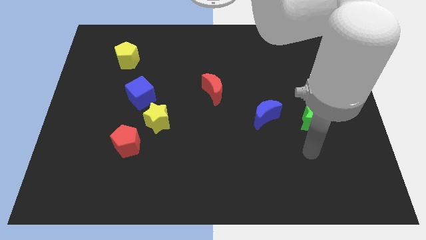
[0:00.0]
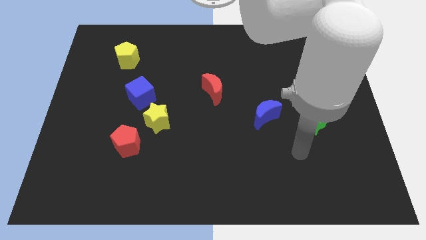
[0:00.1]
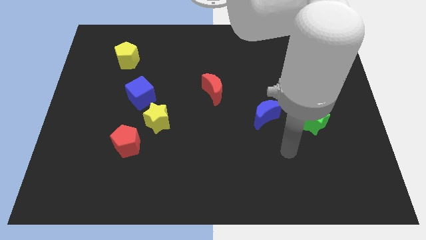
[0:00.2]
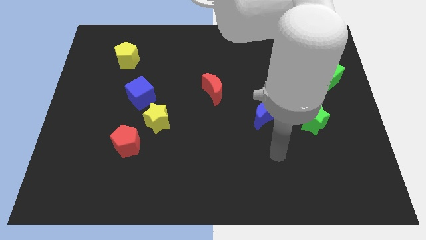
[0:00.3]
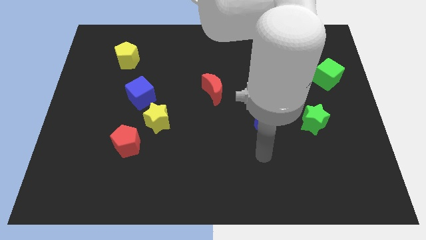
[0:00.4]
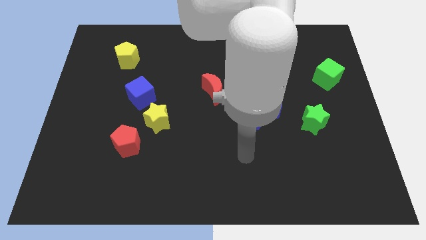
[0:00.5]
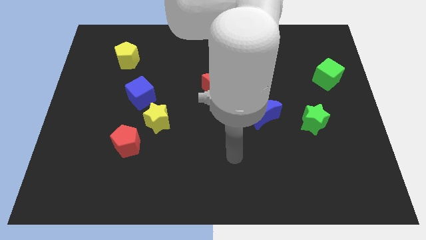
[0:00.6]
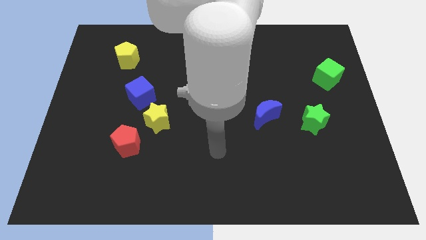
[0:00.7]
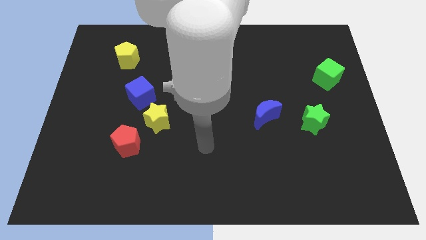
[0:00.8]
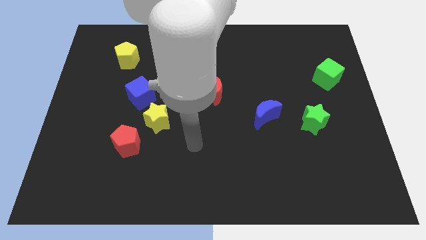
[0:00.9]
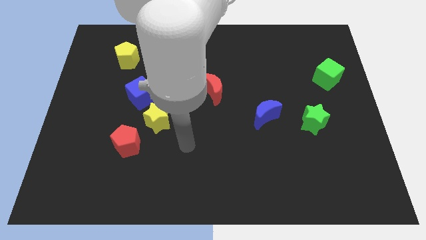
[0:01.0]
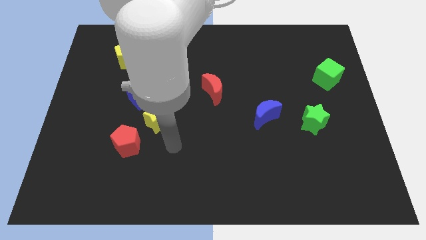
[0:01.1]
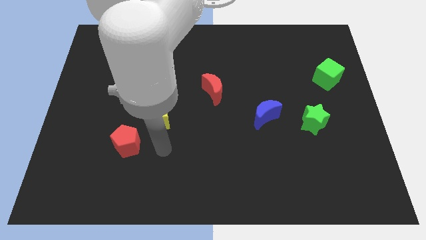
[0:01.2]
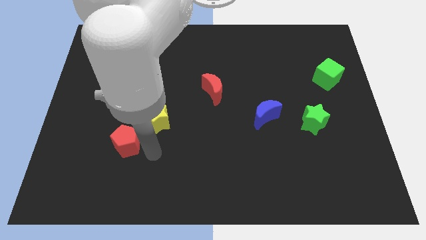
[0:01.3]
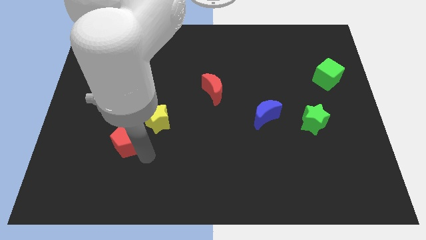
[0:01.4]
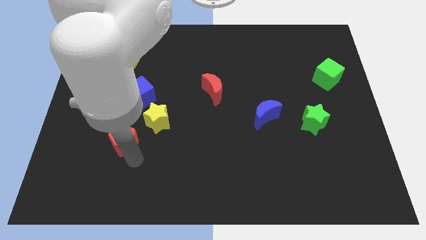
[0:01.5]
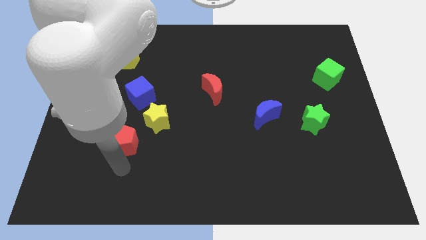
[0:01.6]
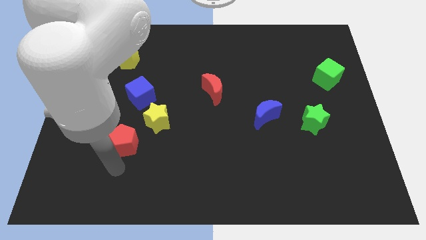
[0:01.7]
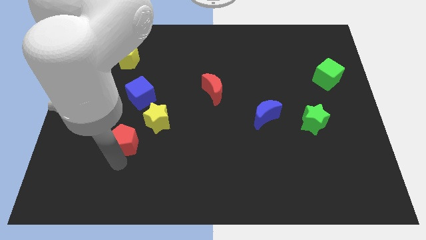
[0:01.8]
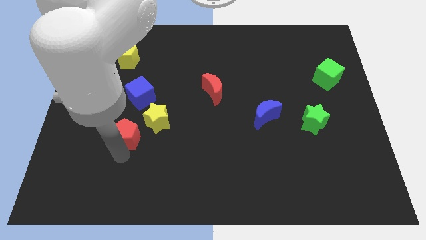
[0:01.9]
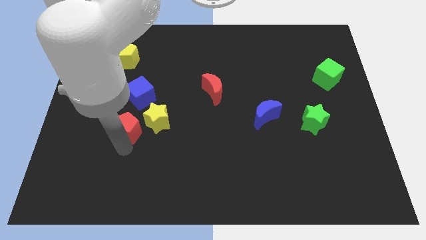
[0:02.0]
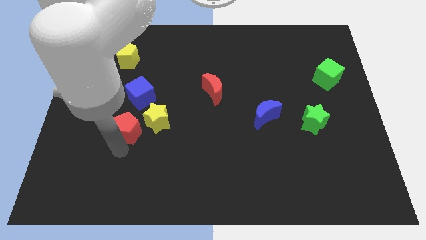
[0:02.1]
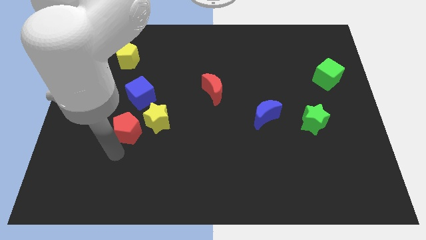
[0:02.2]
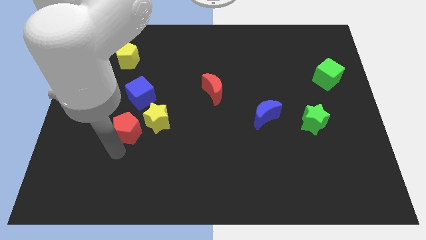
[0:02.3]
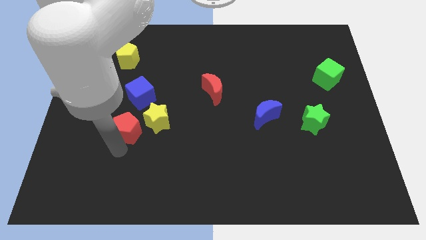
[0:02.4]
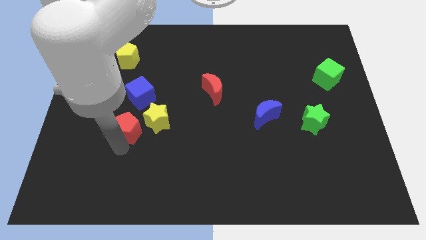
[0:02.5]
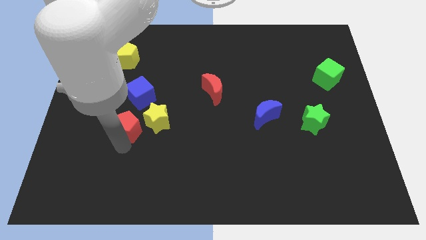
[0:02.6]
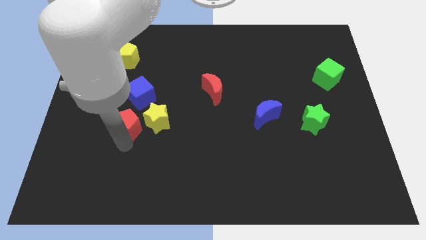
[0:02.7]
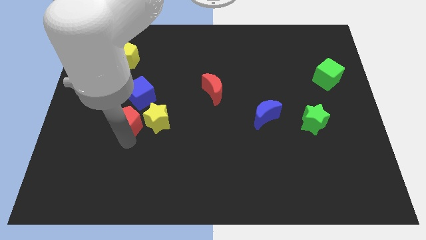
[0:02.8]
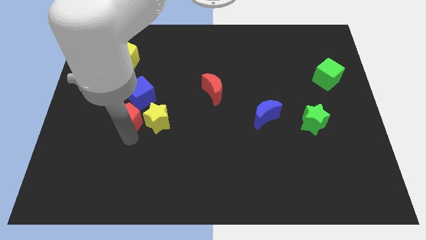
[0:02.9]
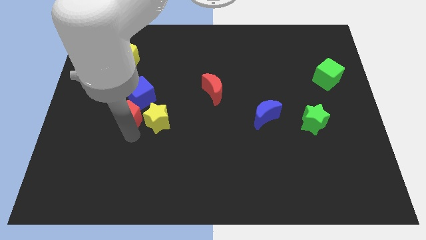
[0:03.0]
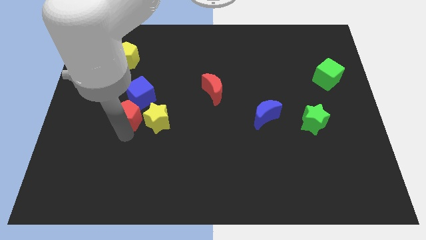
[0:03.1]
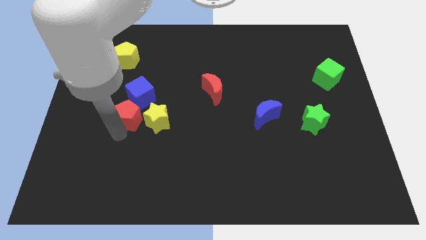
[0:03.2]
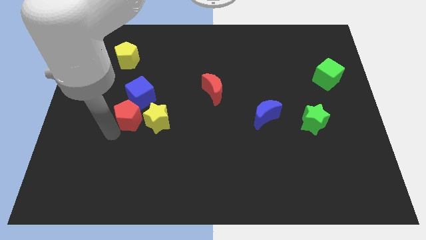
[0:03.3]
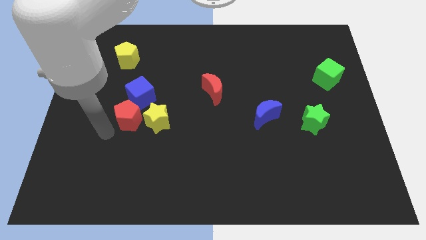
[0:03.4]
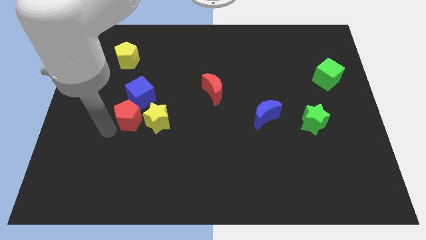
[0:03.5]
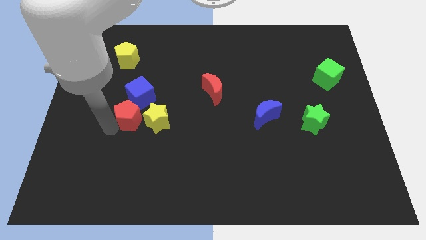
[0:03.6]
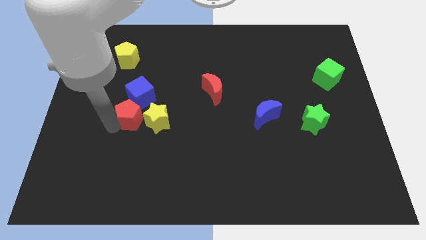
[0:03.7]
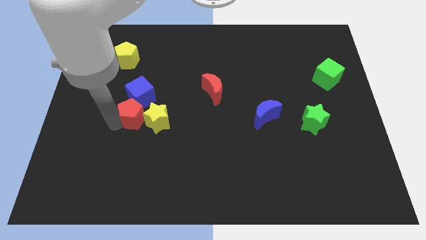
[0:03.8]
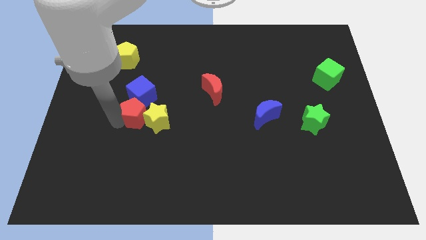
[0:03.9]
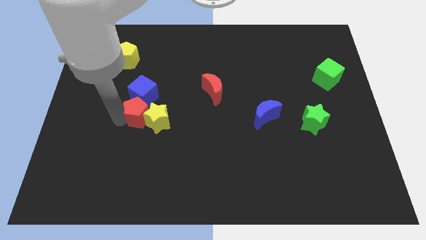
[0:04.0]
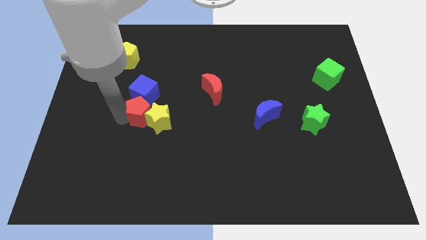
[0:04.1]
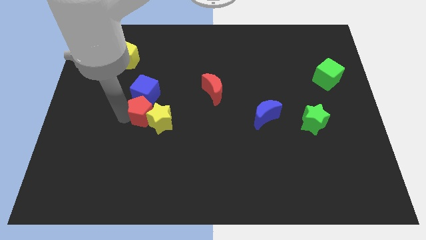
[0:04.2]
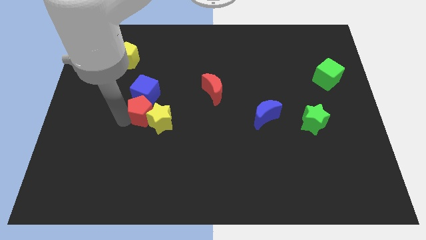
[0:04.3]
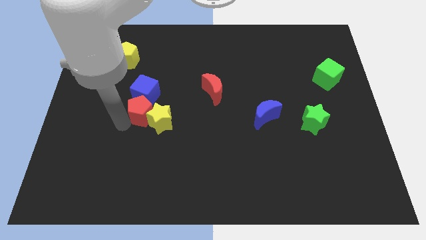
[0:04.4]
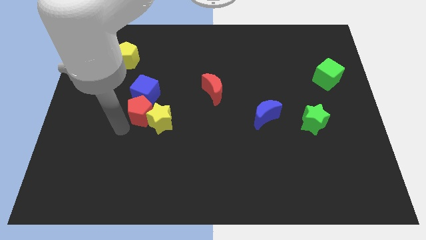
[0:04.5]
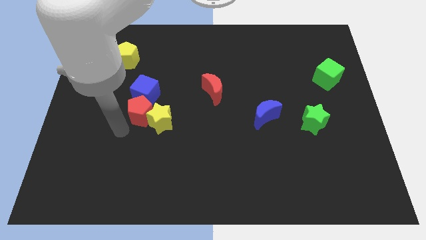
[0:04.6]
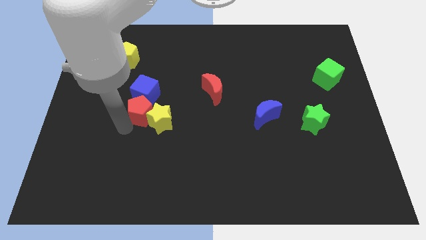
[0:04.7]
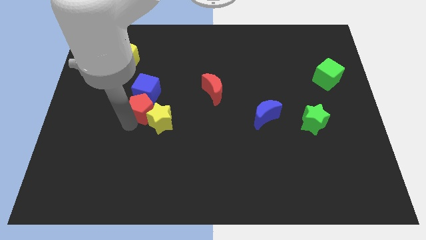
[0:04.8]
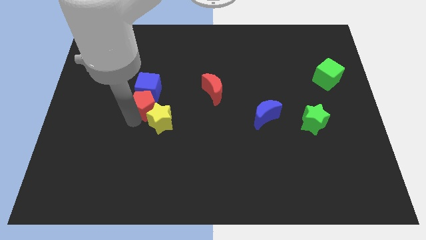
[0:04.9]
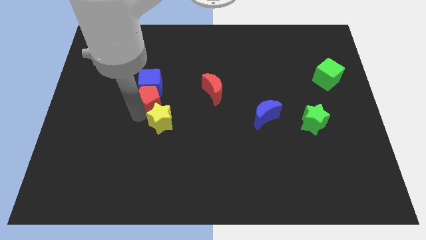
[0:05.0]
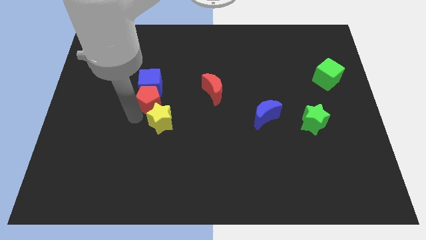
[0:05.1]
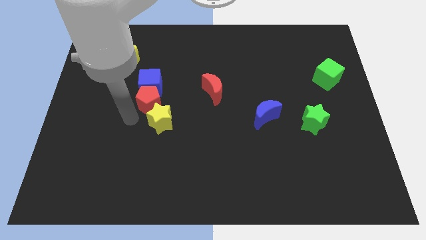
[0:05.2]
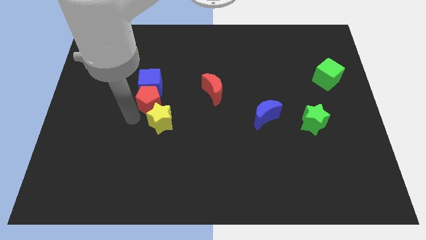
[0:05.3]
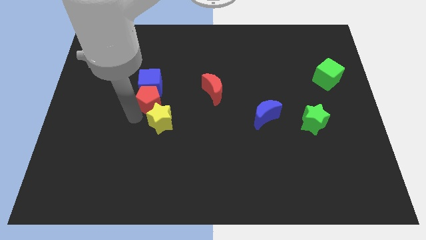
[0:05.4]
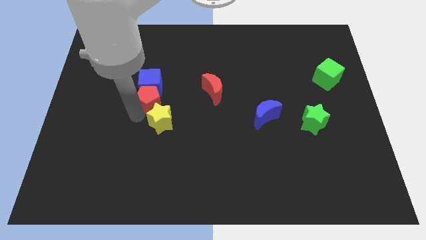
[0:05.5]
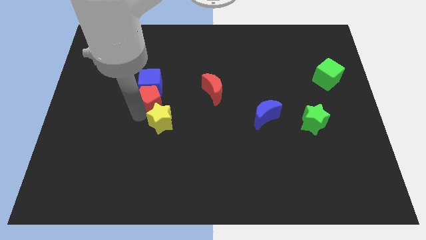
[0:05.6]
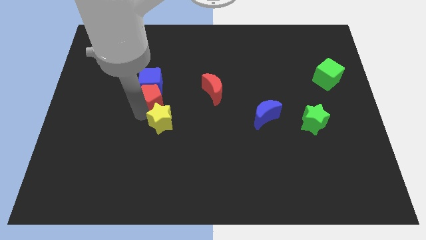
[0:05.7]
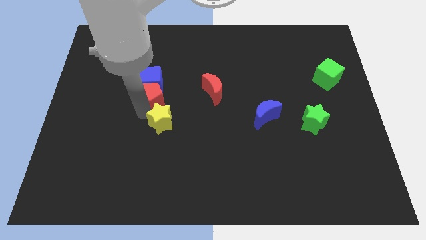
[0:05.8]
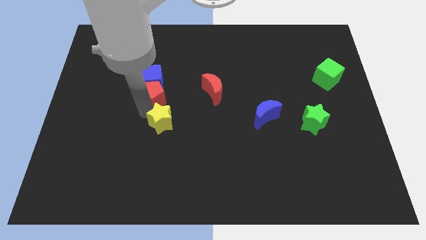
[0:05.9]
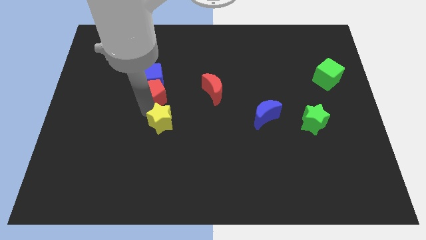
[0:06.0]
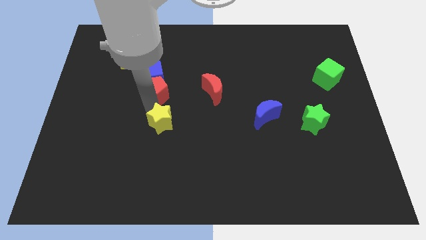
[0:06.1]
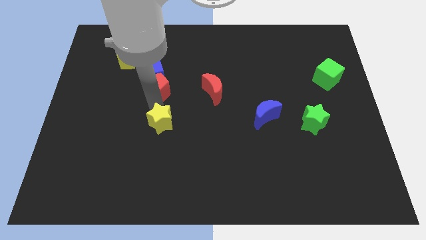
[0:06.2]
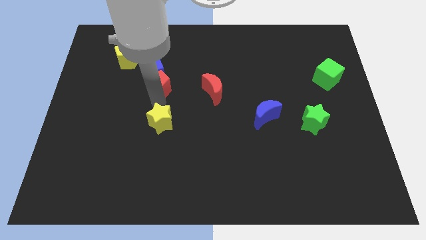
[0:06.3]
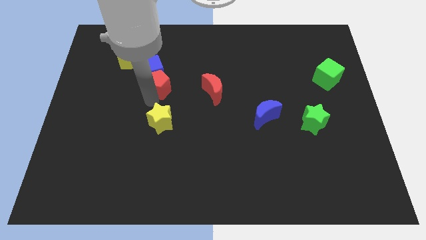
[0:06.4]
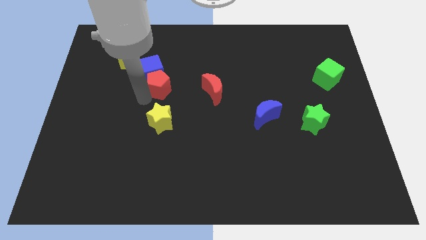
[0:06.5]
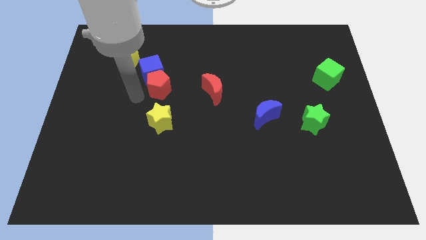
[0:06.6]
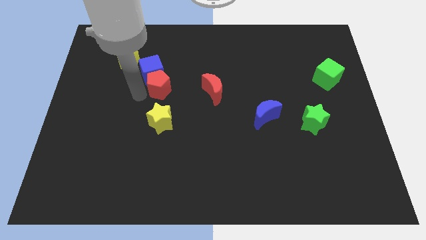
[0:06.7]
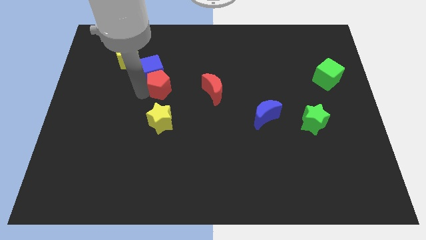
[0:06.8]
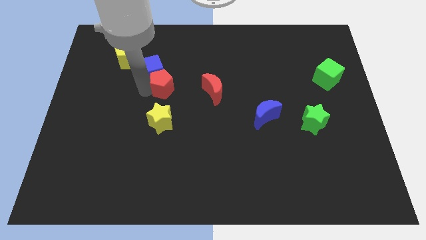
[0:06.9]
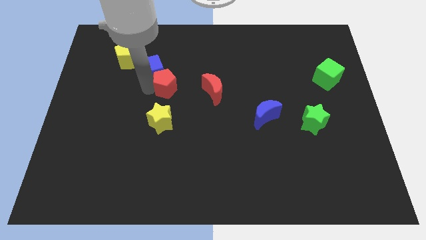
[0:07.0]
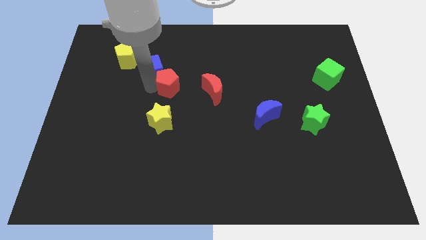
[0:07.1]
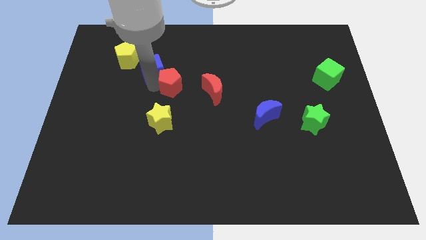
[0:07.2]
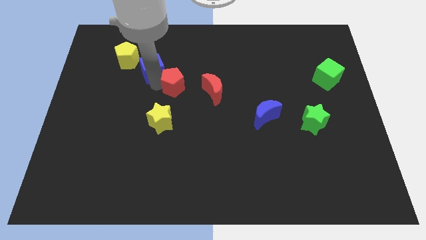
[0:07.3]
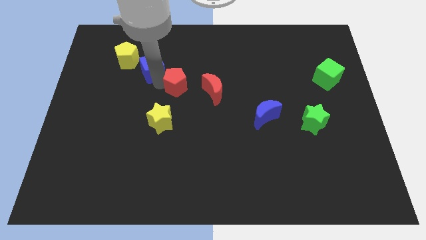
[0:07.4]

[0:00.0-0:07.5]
put the red pentagon to the top left of the red moon

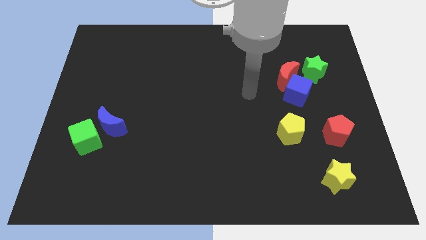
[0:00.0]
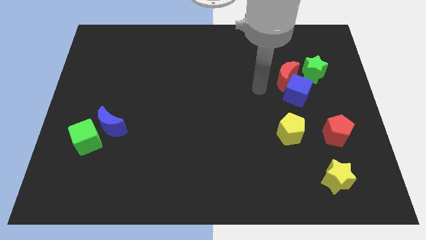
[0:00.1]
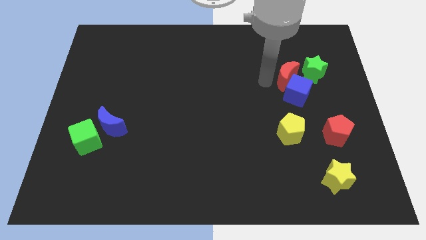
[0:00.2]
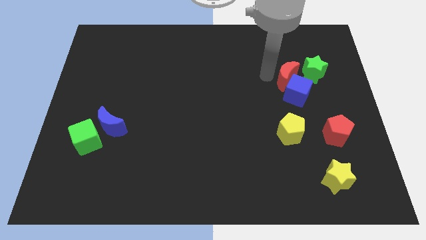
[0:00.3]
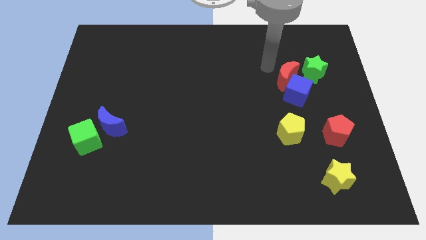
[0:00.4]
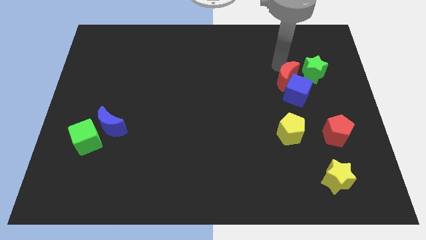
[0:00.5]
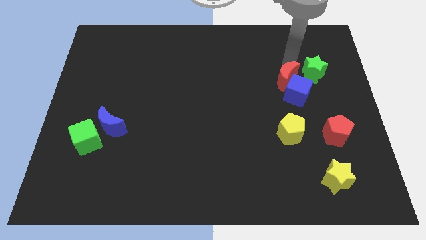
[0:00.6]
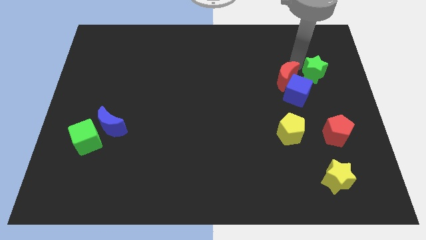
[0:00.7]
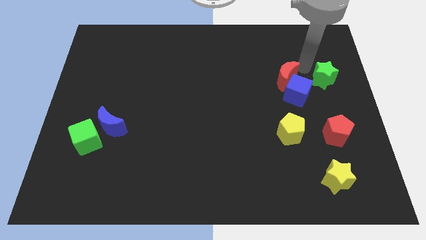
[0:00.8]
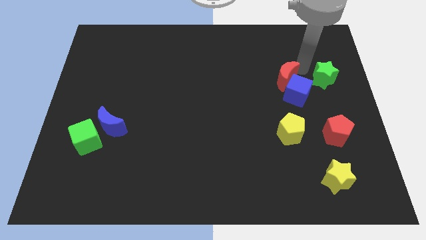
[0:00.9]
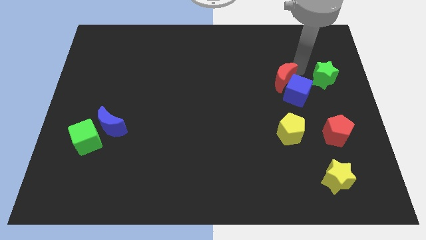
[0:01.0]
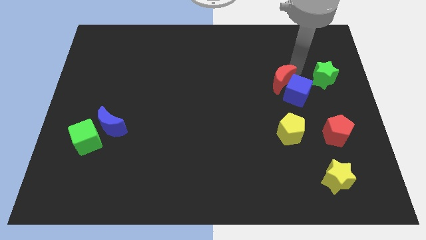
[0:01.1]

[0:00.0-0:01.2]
put the red moon to the left side of the blue cube
